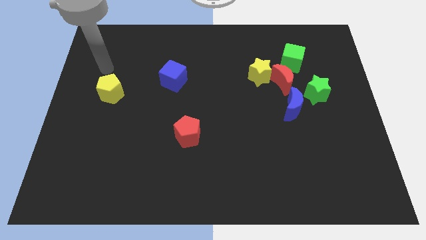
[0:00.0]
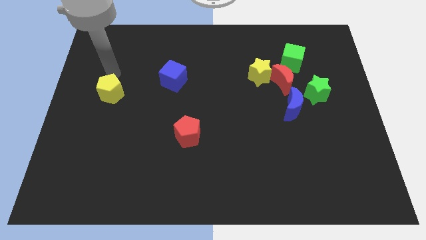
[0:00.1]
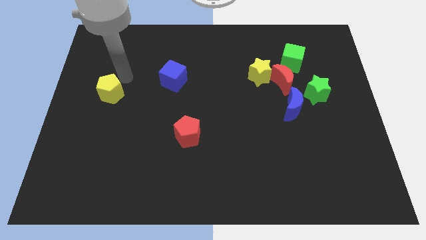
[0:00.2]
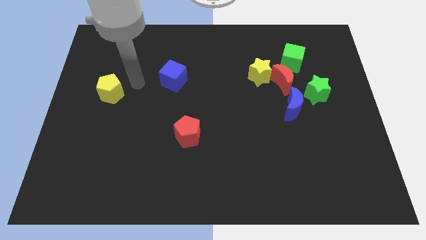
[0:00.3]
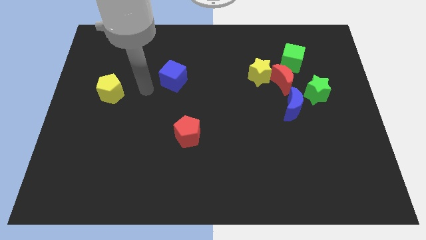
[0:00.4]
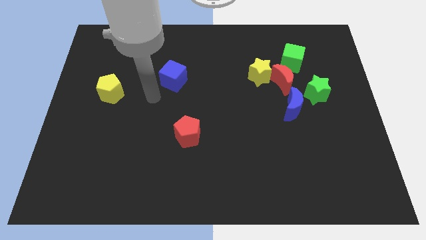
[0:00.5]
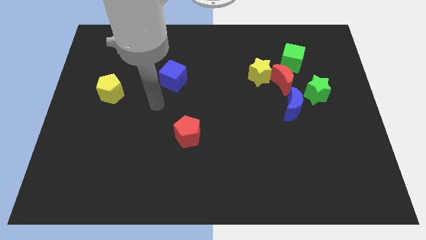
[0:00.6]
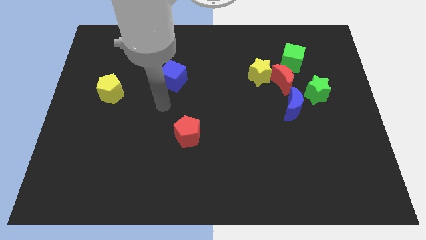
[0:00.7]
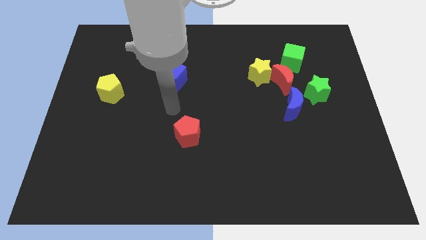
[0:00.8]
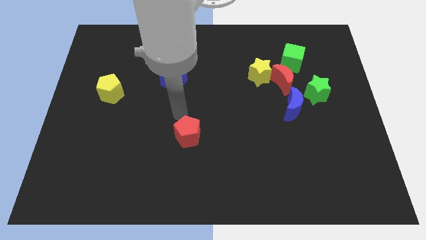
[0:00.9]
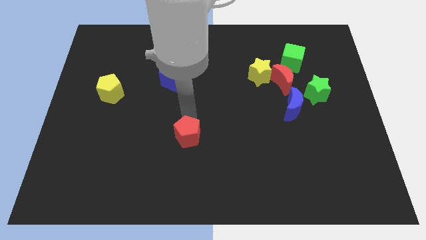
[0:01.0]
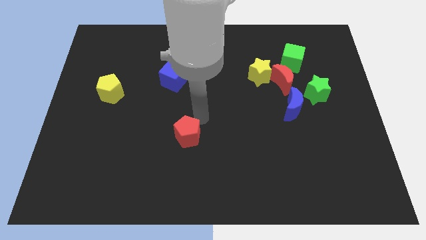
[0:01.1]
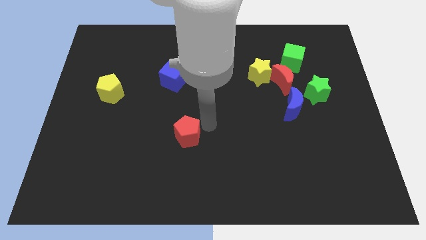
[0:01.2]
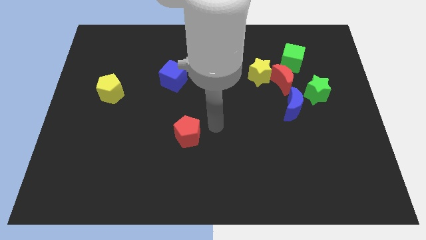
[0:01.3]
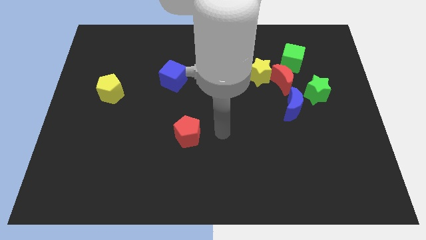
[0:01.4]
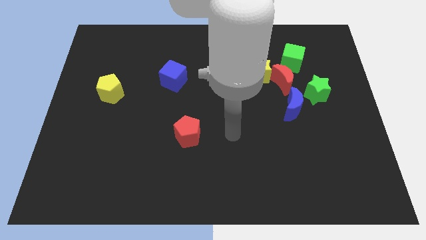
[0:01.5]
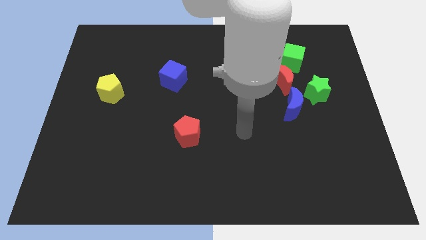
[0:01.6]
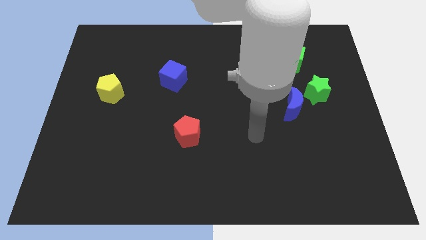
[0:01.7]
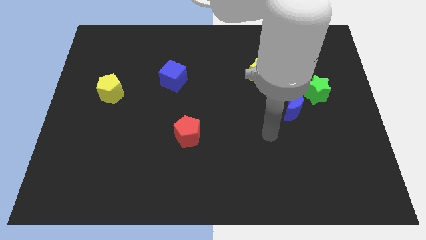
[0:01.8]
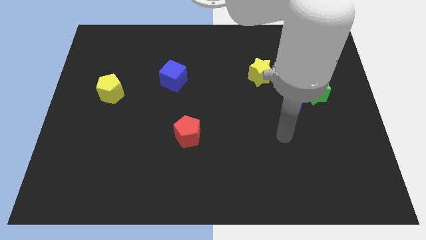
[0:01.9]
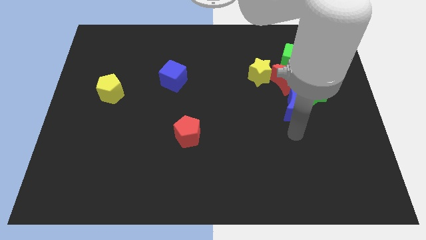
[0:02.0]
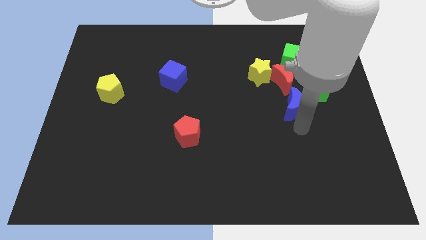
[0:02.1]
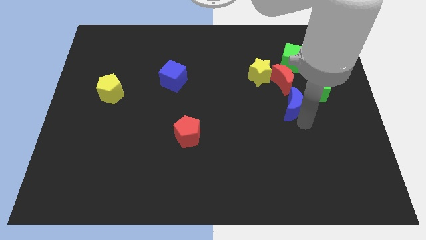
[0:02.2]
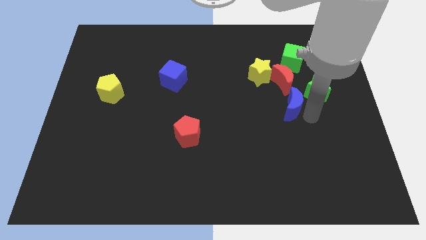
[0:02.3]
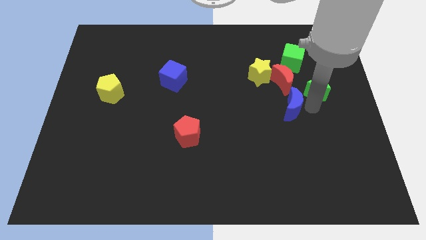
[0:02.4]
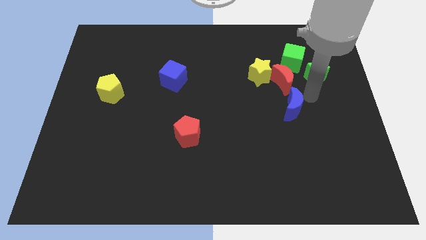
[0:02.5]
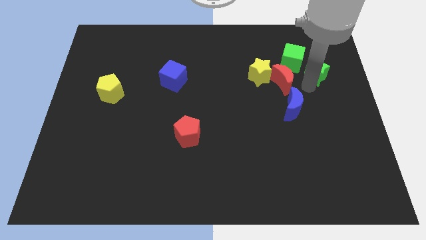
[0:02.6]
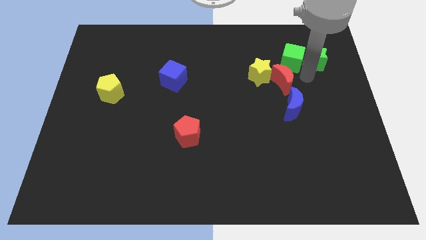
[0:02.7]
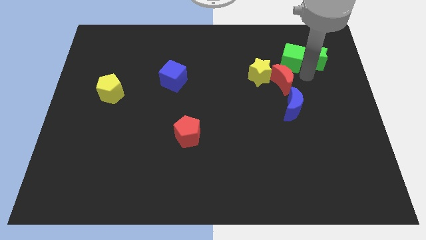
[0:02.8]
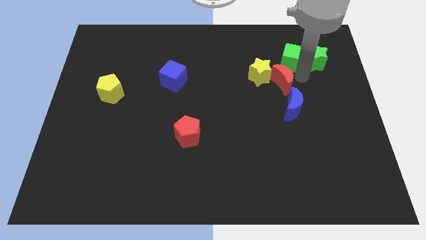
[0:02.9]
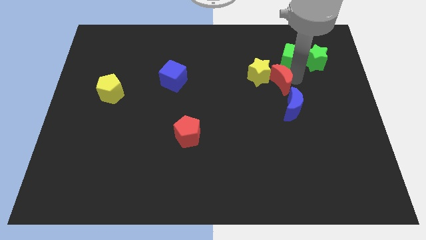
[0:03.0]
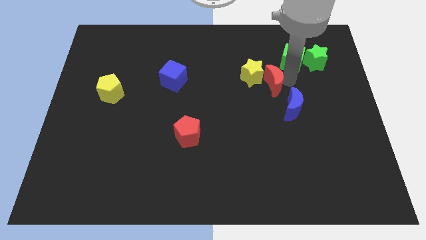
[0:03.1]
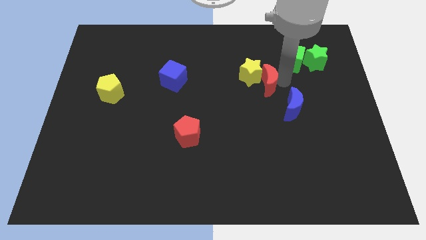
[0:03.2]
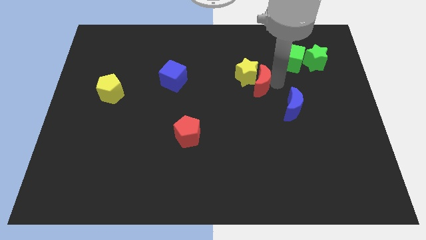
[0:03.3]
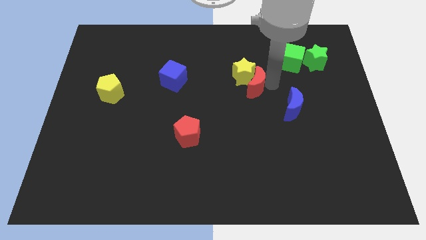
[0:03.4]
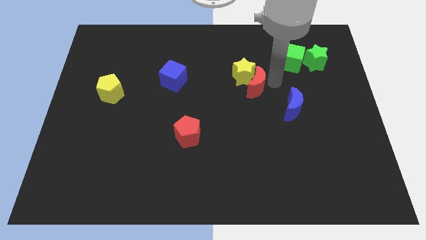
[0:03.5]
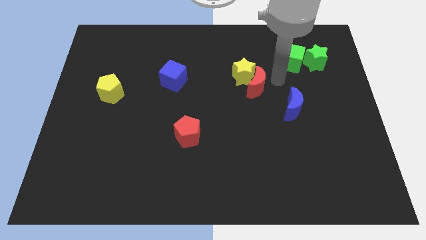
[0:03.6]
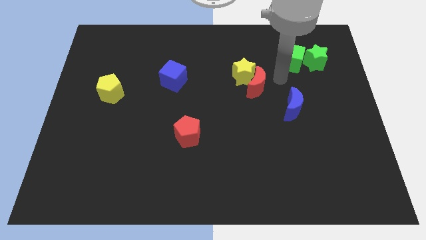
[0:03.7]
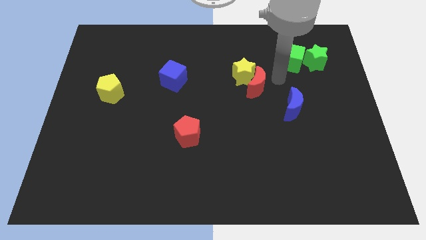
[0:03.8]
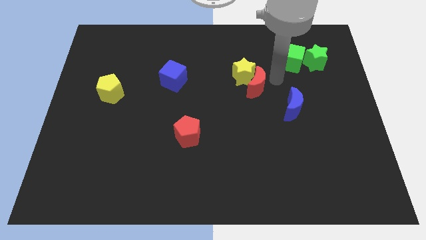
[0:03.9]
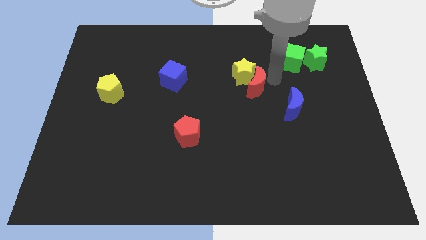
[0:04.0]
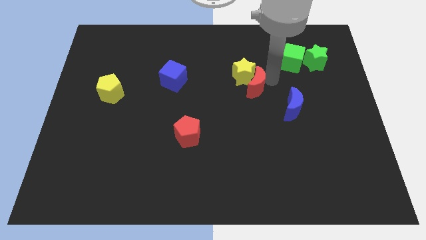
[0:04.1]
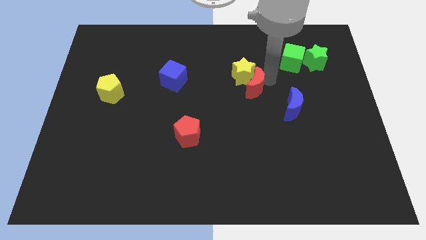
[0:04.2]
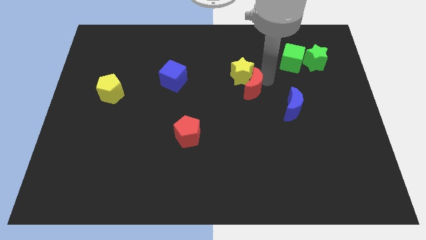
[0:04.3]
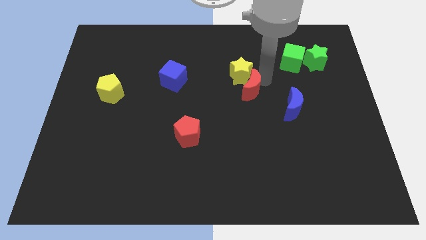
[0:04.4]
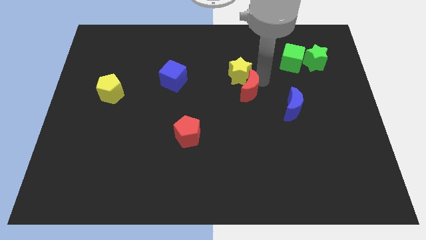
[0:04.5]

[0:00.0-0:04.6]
move the red moon away from the group

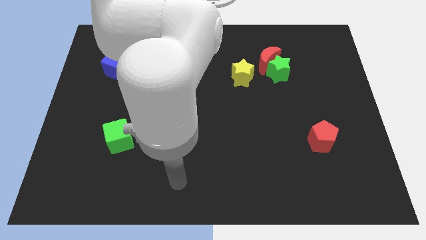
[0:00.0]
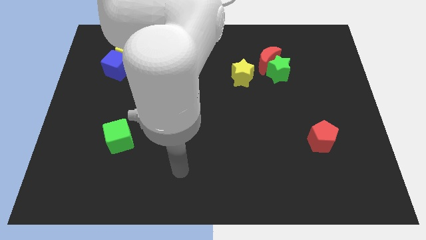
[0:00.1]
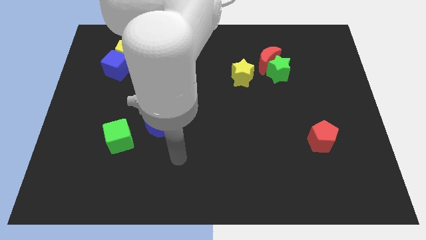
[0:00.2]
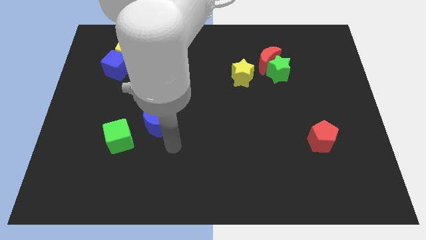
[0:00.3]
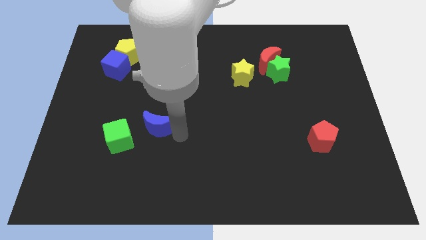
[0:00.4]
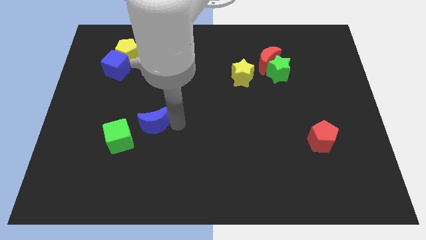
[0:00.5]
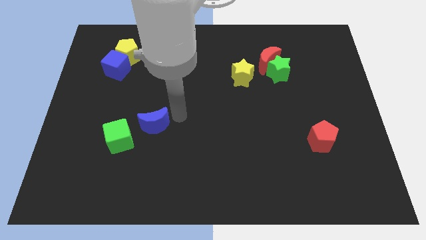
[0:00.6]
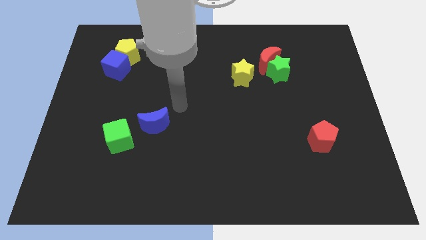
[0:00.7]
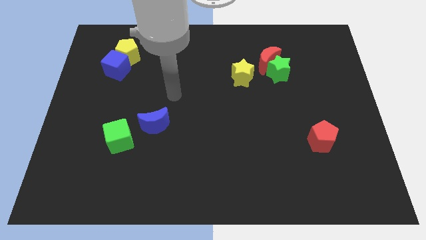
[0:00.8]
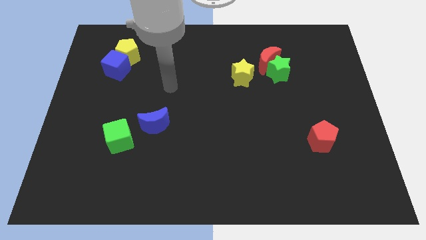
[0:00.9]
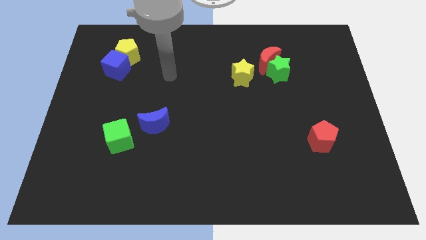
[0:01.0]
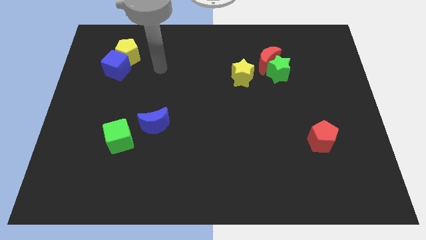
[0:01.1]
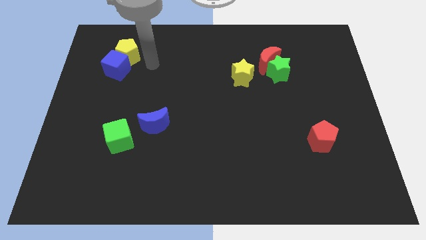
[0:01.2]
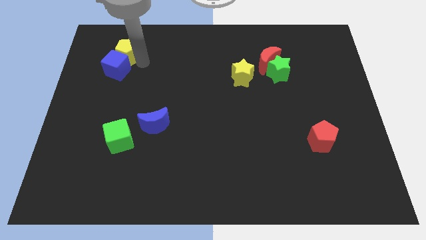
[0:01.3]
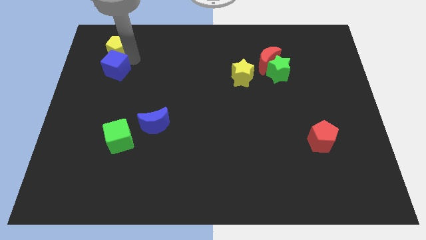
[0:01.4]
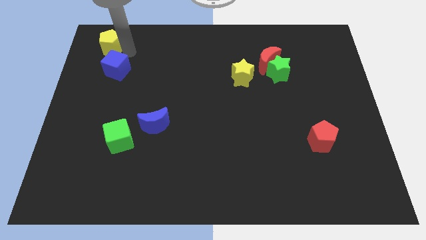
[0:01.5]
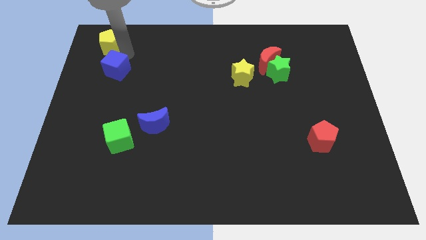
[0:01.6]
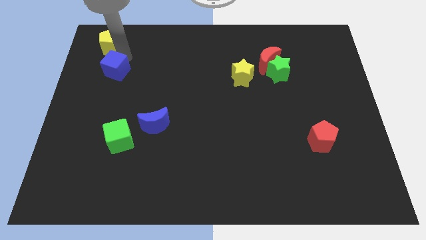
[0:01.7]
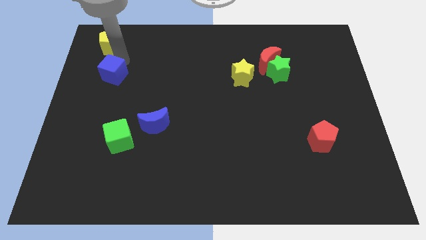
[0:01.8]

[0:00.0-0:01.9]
separate the blue cube from the yellow pentagon

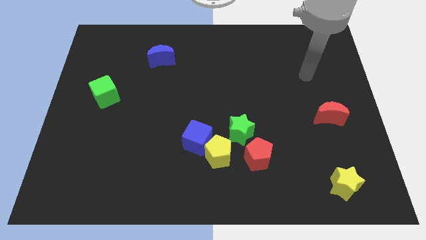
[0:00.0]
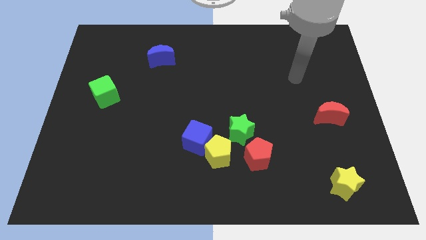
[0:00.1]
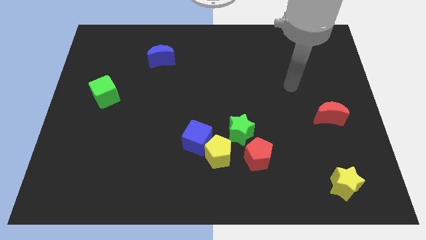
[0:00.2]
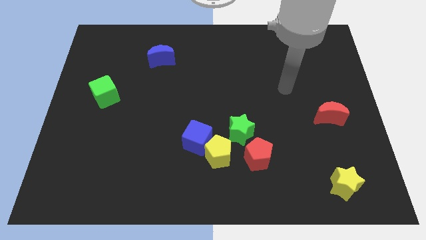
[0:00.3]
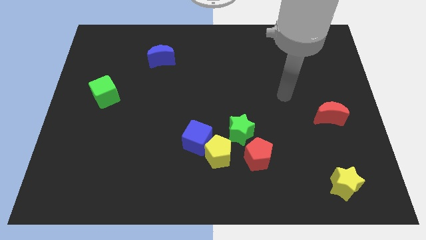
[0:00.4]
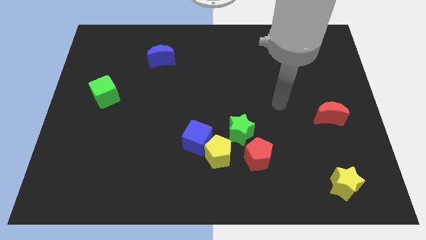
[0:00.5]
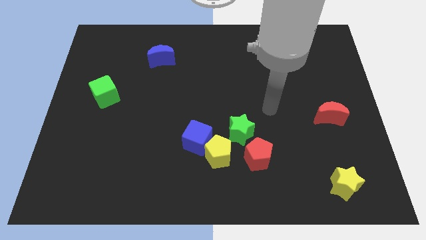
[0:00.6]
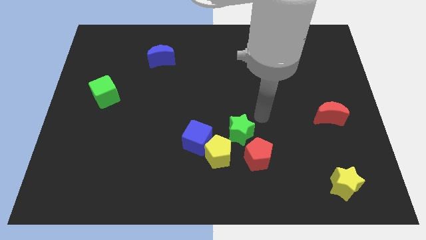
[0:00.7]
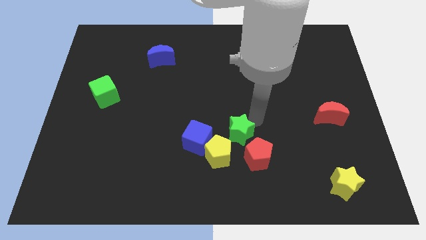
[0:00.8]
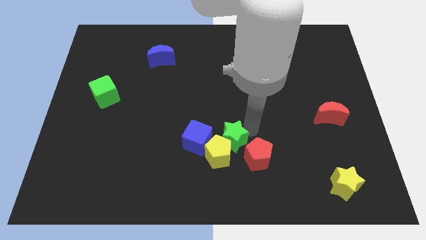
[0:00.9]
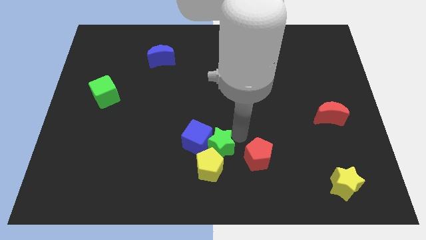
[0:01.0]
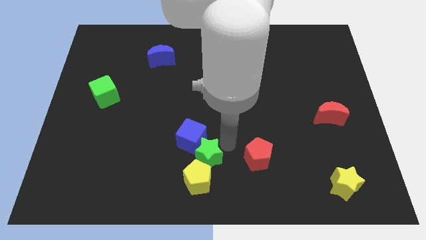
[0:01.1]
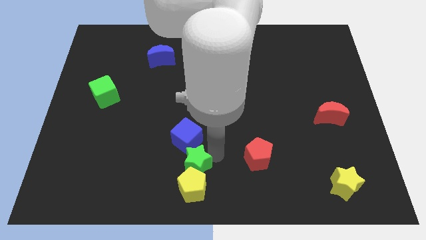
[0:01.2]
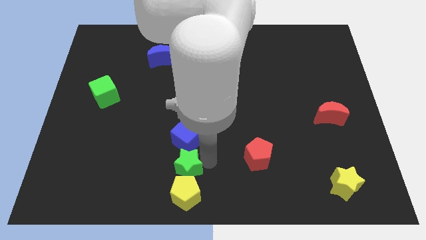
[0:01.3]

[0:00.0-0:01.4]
pull the yellow pentagon apart from the blue cube, green star, and red pentagon

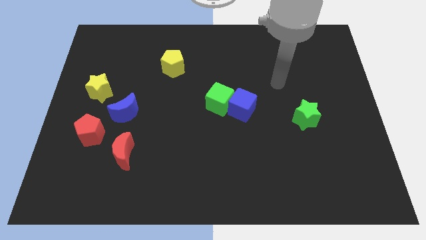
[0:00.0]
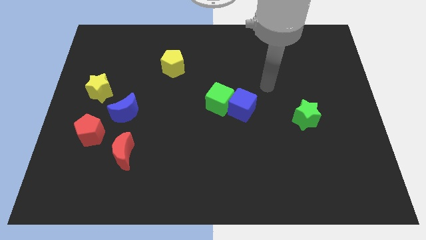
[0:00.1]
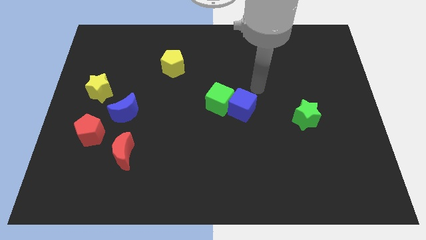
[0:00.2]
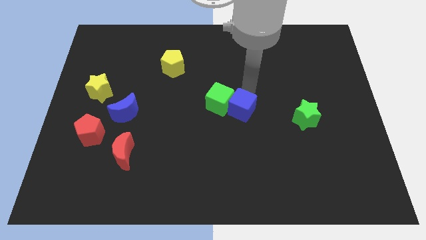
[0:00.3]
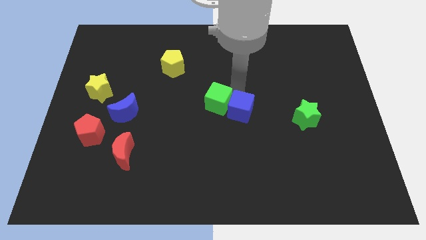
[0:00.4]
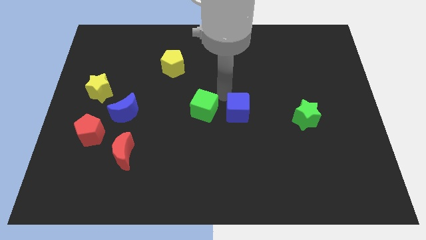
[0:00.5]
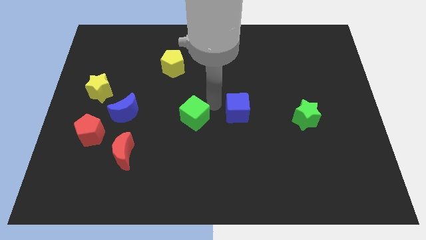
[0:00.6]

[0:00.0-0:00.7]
pull the blue cube apart from the green cube

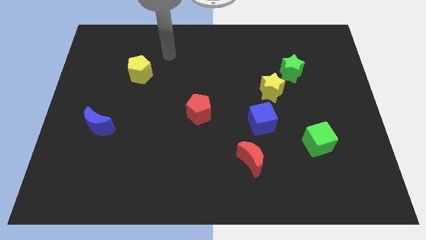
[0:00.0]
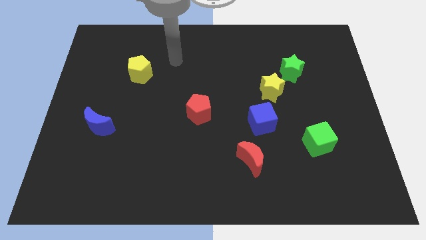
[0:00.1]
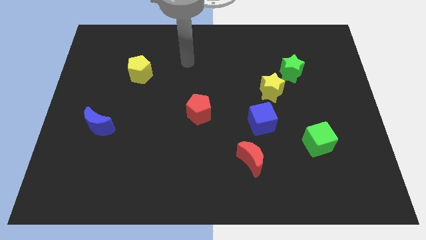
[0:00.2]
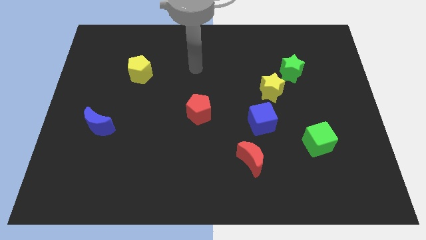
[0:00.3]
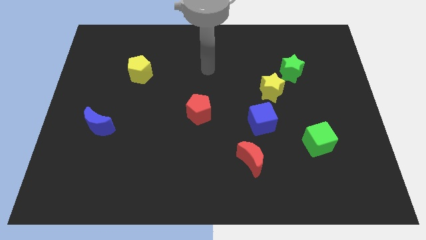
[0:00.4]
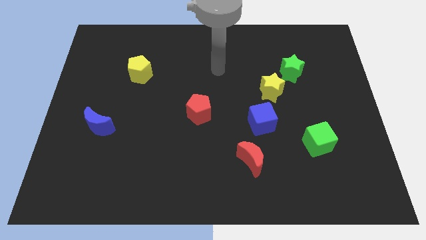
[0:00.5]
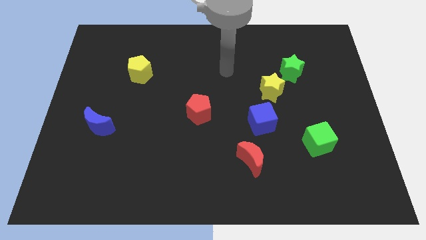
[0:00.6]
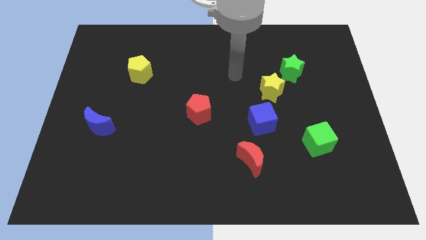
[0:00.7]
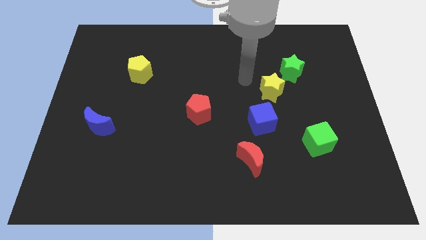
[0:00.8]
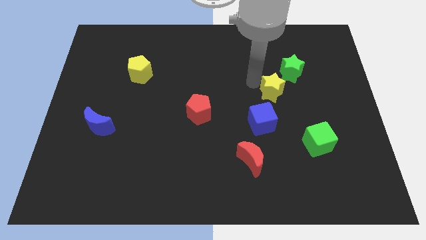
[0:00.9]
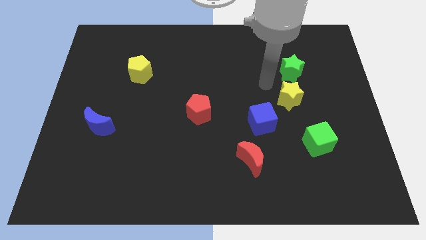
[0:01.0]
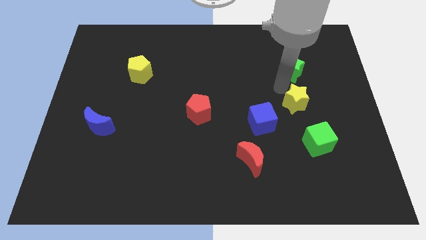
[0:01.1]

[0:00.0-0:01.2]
move the green star away from the yellow star
